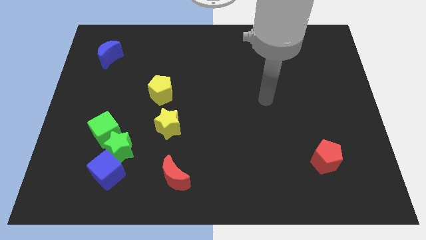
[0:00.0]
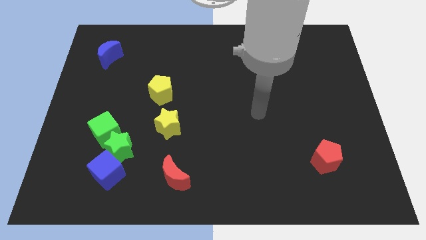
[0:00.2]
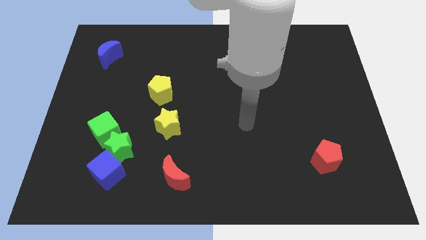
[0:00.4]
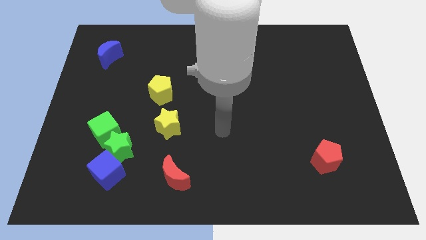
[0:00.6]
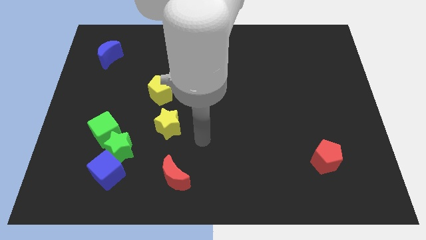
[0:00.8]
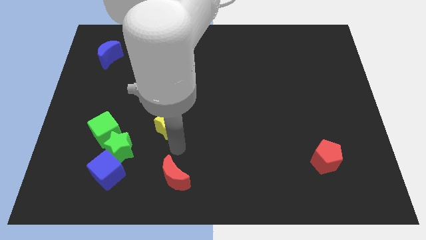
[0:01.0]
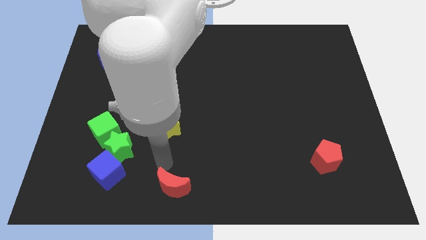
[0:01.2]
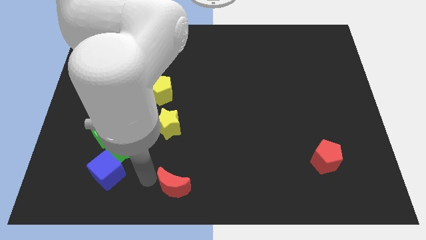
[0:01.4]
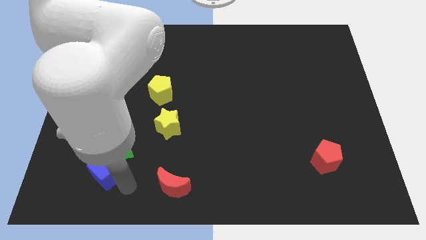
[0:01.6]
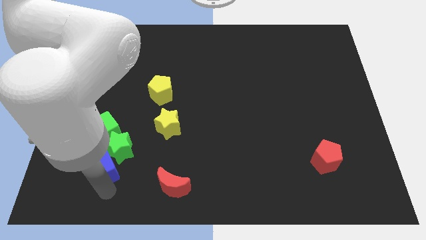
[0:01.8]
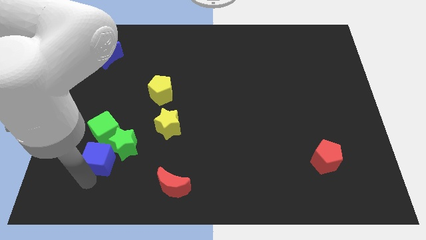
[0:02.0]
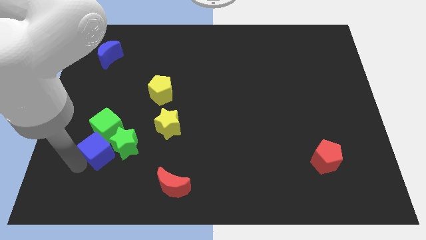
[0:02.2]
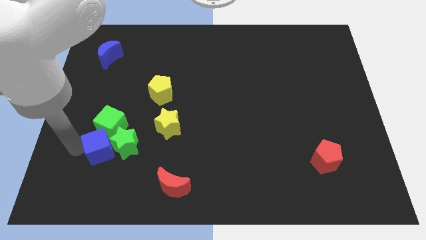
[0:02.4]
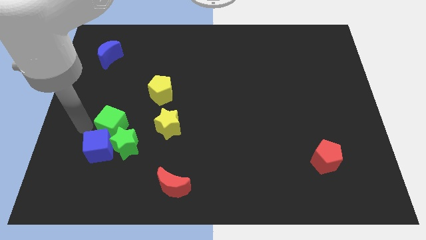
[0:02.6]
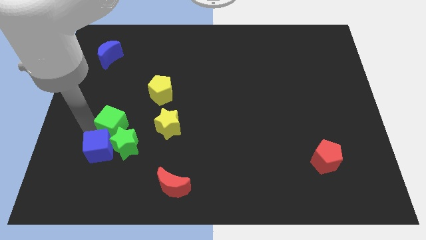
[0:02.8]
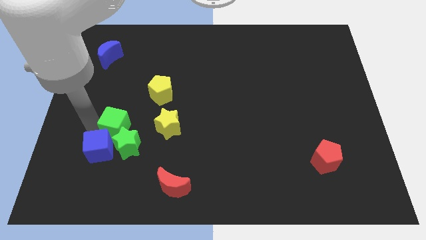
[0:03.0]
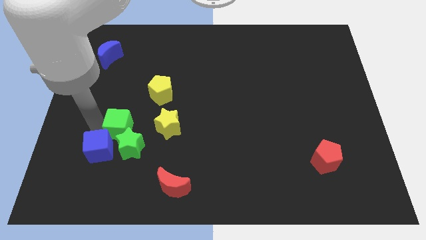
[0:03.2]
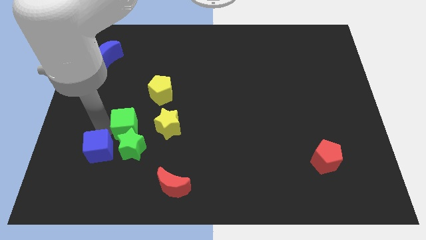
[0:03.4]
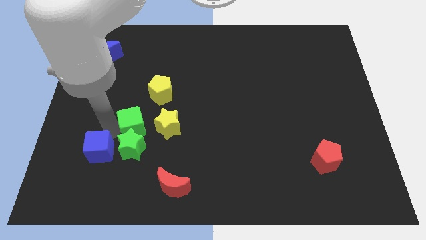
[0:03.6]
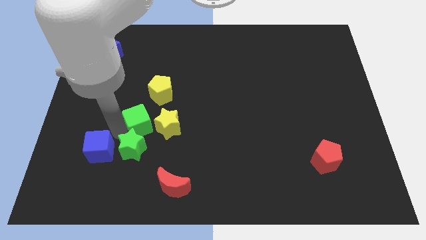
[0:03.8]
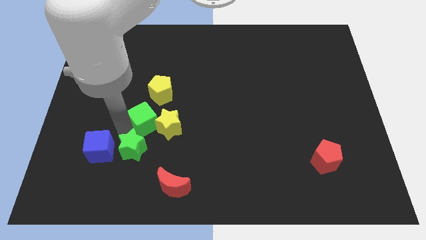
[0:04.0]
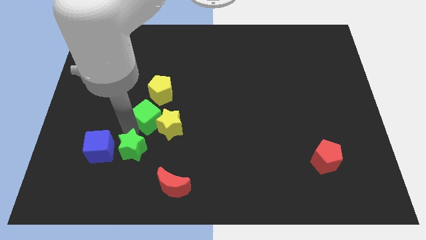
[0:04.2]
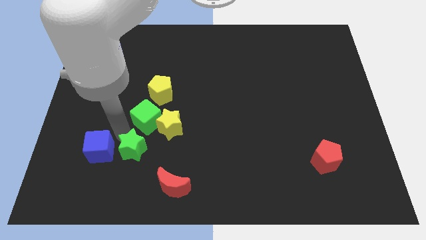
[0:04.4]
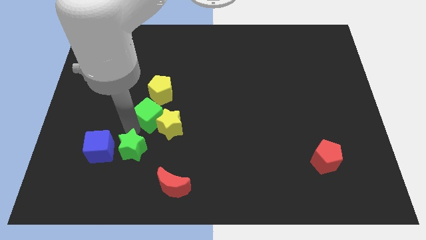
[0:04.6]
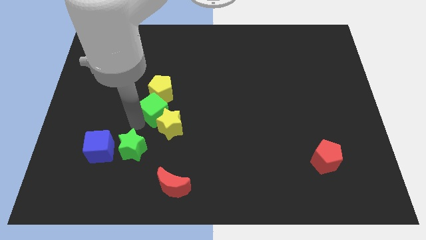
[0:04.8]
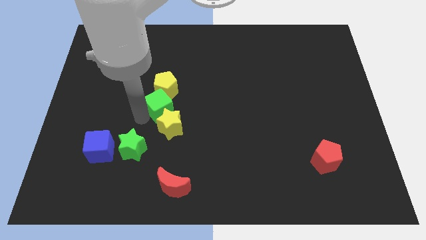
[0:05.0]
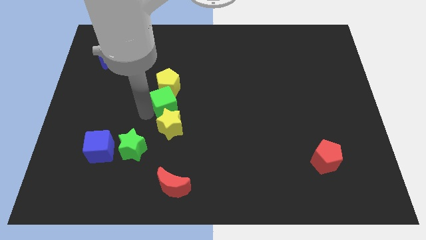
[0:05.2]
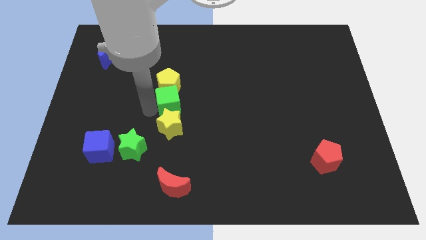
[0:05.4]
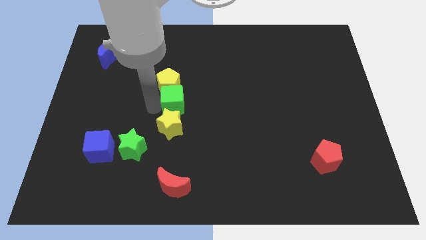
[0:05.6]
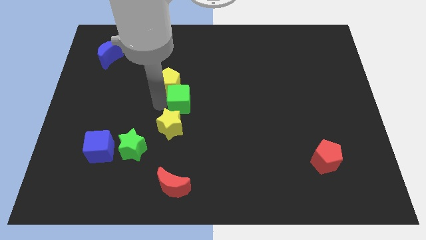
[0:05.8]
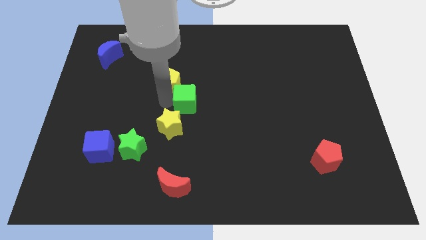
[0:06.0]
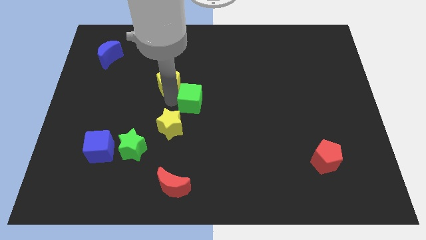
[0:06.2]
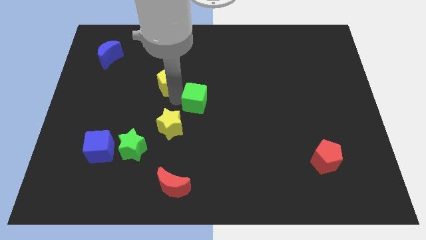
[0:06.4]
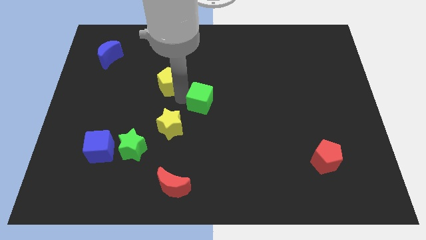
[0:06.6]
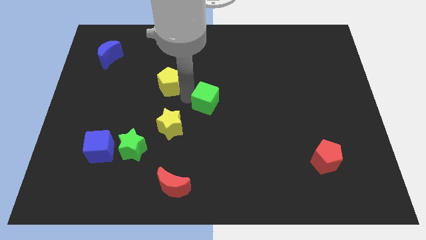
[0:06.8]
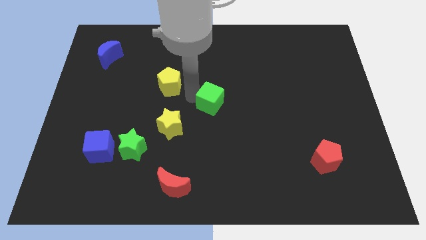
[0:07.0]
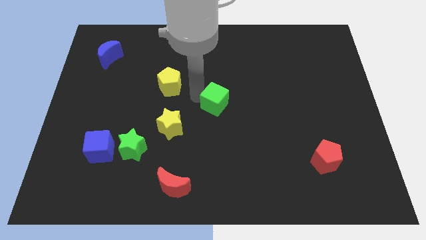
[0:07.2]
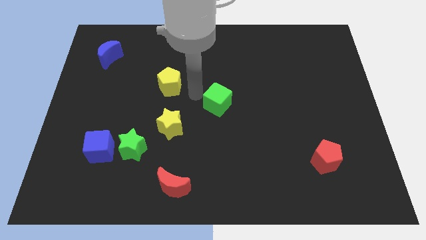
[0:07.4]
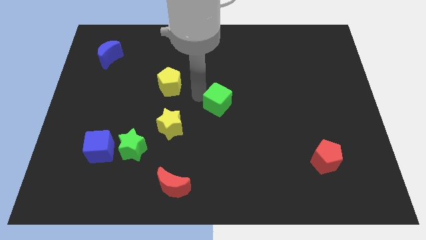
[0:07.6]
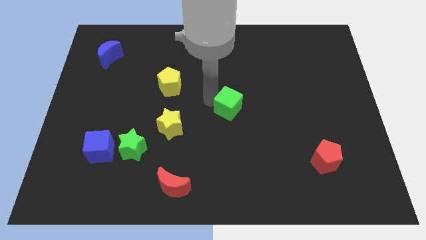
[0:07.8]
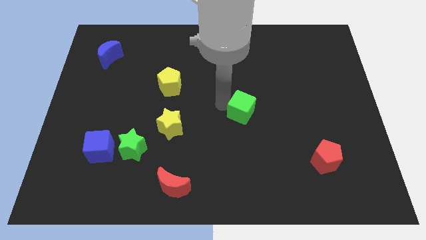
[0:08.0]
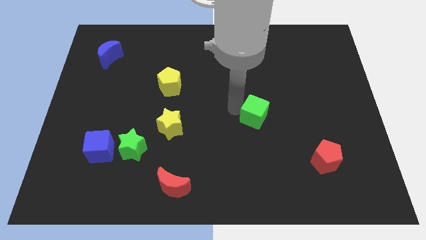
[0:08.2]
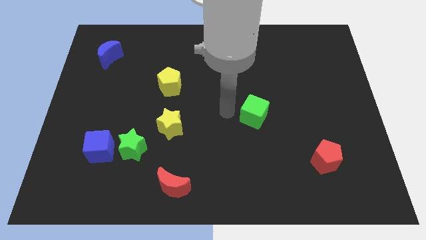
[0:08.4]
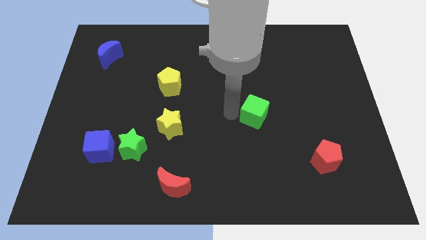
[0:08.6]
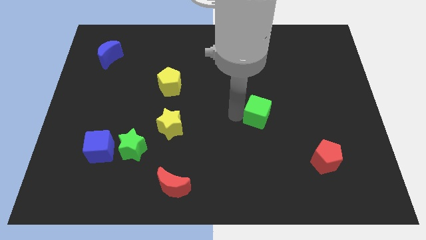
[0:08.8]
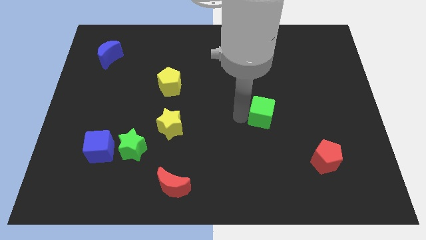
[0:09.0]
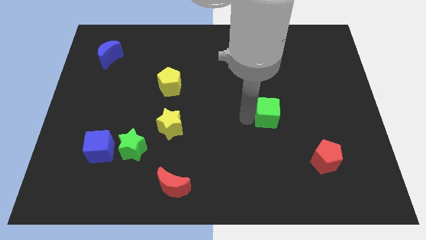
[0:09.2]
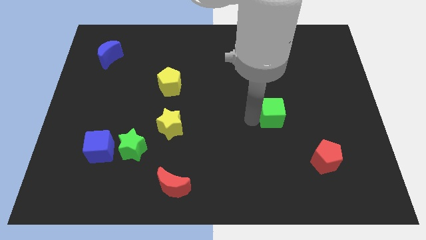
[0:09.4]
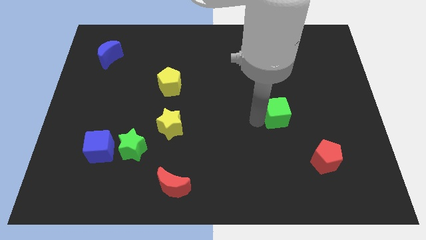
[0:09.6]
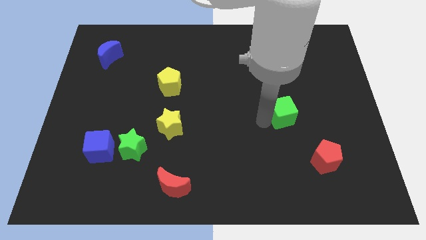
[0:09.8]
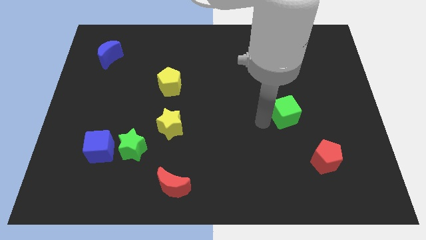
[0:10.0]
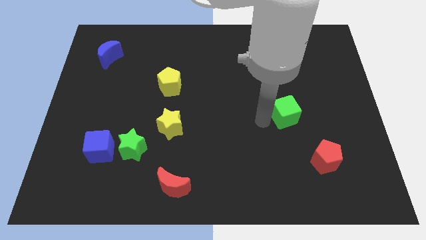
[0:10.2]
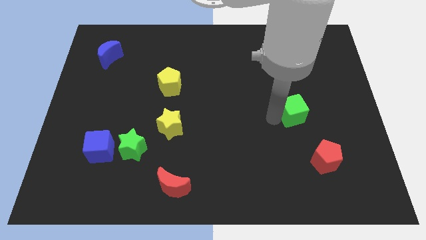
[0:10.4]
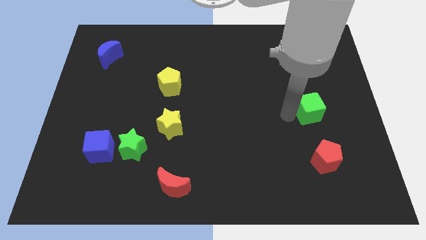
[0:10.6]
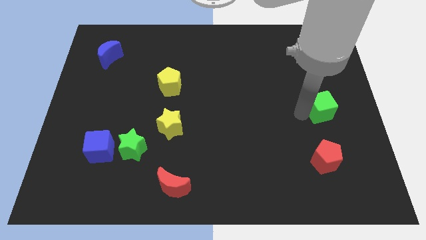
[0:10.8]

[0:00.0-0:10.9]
put the green cube to the right side
